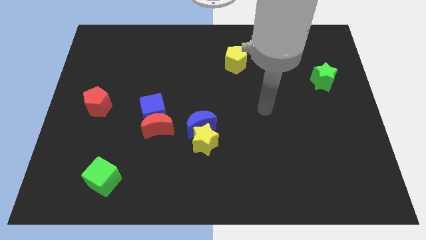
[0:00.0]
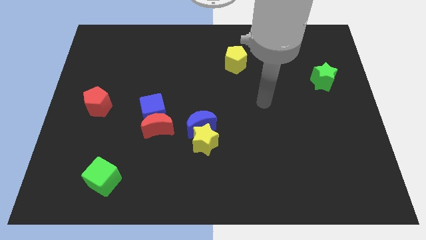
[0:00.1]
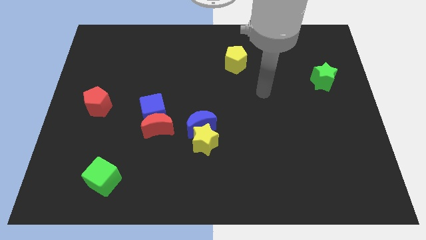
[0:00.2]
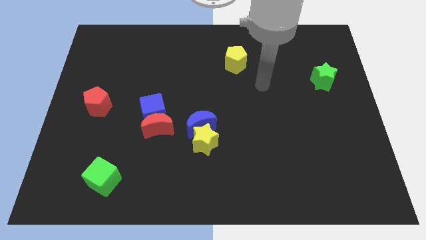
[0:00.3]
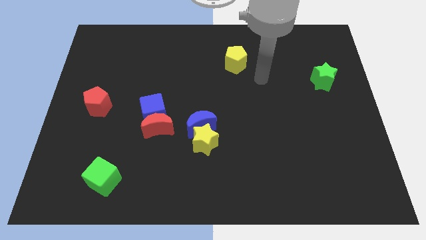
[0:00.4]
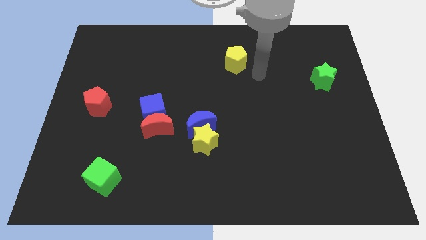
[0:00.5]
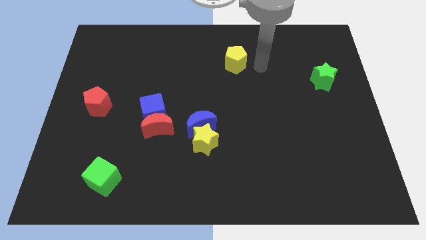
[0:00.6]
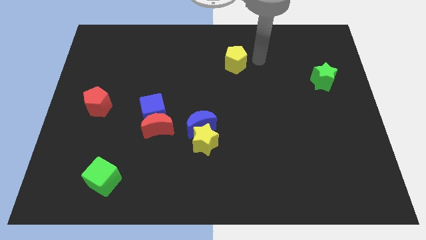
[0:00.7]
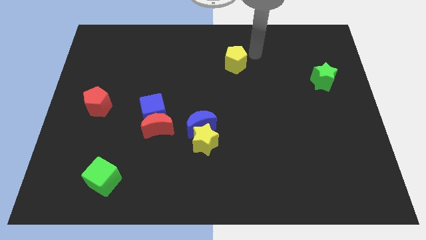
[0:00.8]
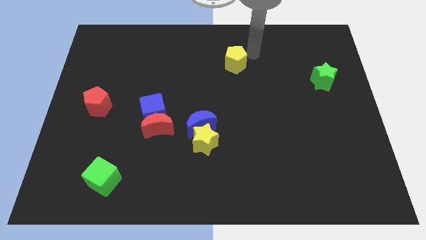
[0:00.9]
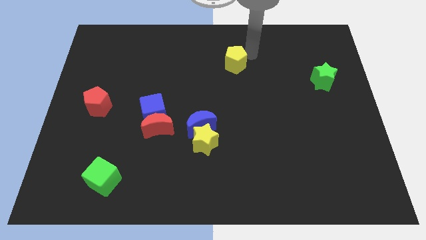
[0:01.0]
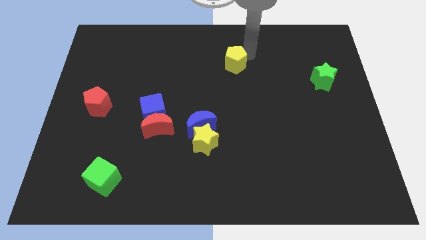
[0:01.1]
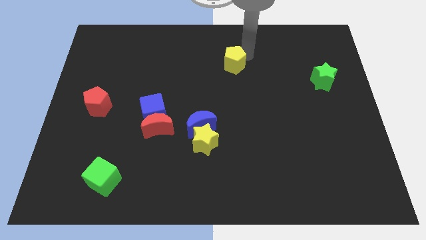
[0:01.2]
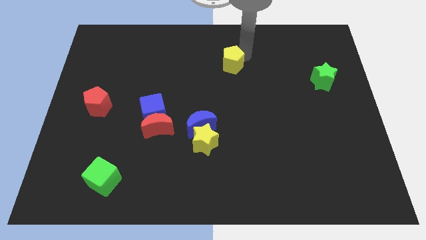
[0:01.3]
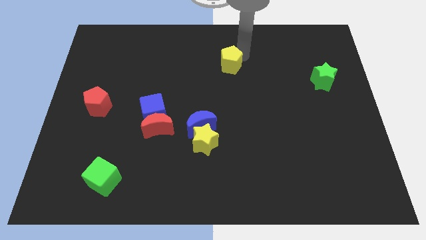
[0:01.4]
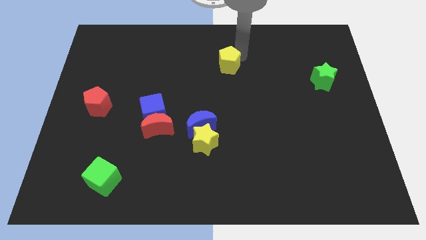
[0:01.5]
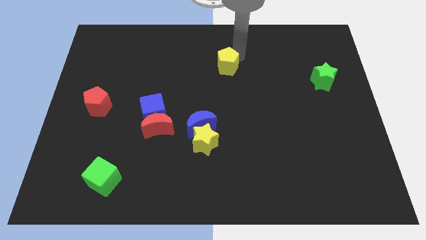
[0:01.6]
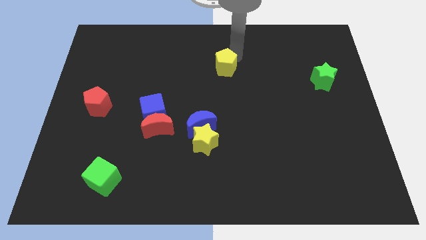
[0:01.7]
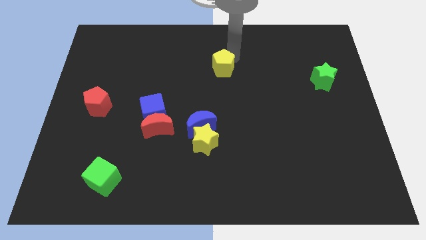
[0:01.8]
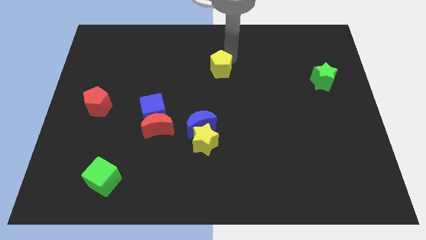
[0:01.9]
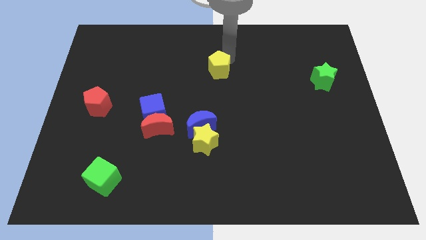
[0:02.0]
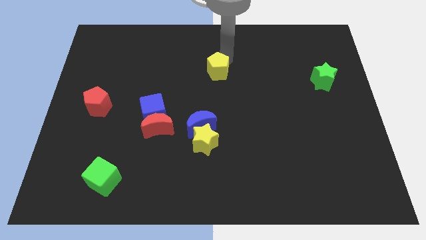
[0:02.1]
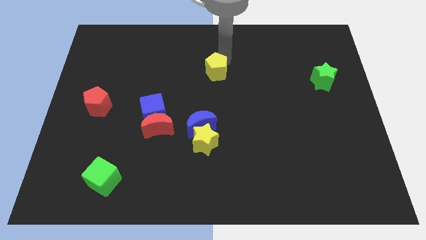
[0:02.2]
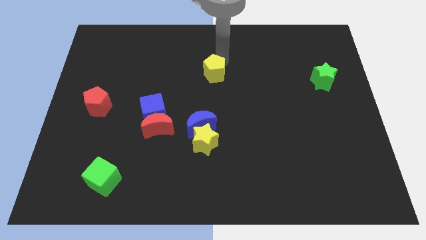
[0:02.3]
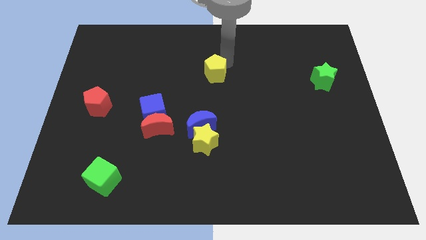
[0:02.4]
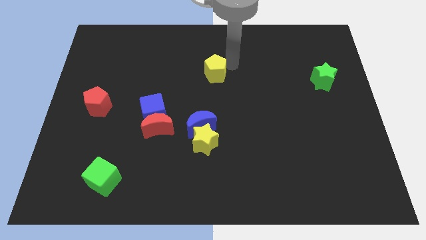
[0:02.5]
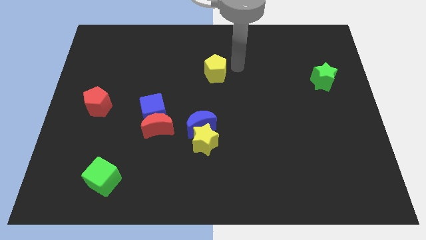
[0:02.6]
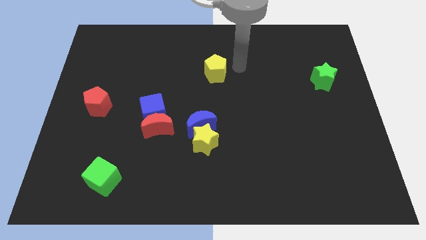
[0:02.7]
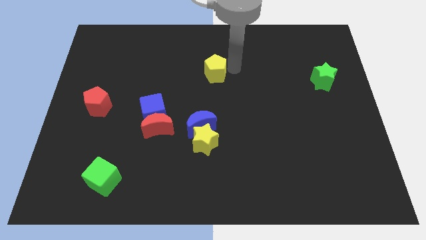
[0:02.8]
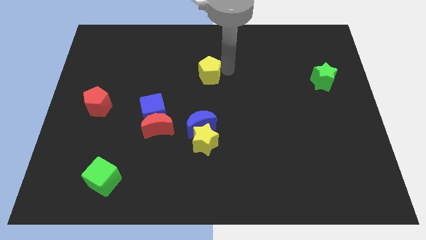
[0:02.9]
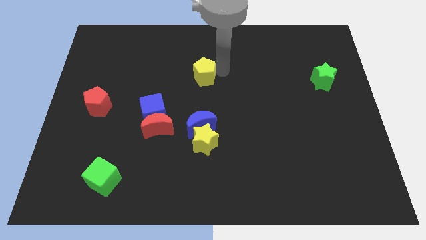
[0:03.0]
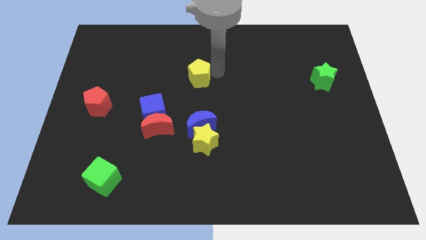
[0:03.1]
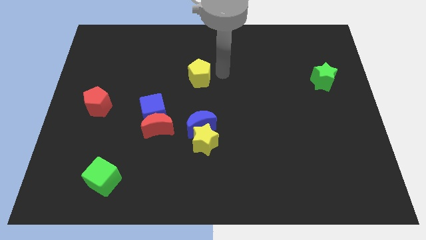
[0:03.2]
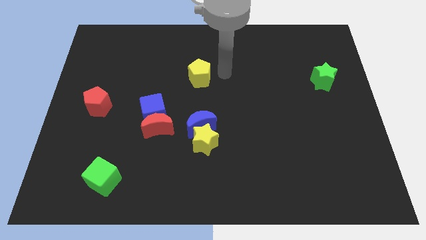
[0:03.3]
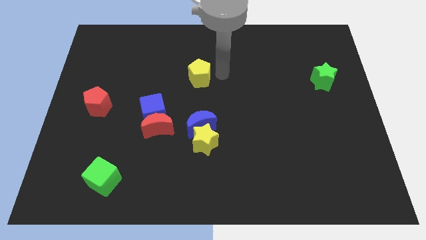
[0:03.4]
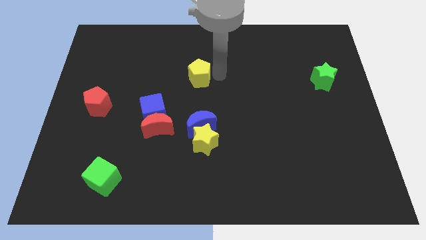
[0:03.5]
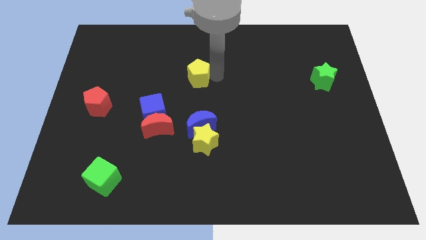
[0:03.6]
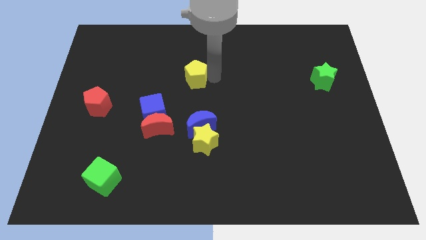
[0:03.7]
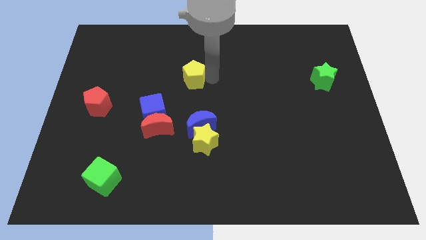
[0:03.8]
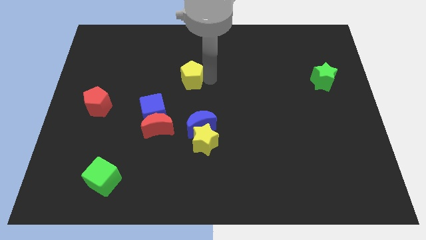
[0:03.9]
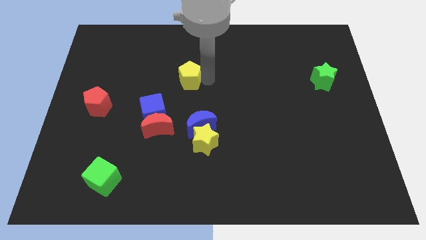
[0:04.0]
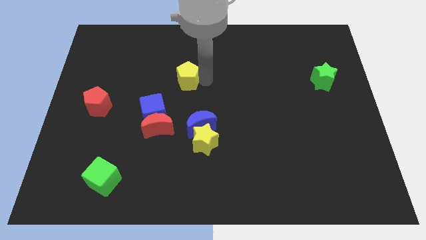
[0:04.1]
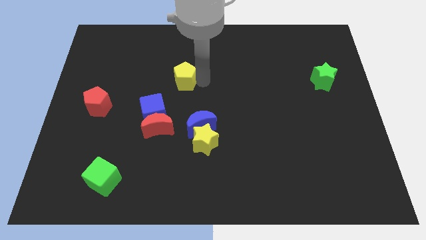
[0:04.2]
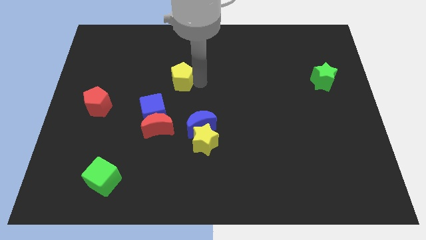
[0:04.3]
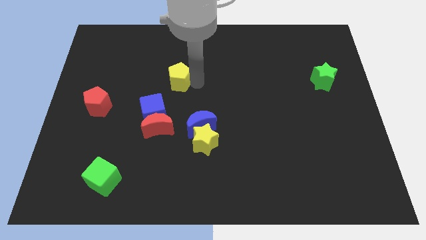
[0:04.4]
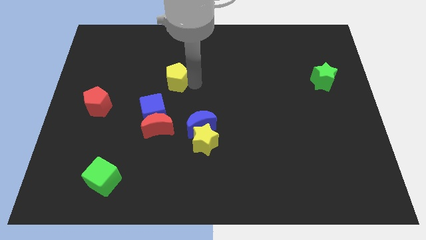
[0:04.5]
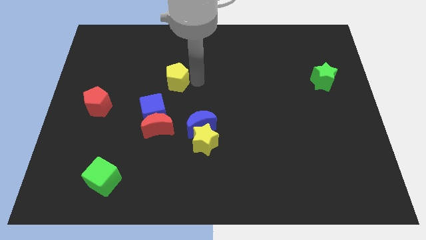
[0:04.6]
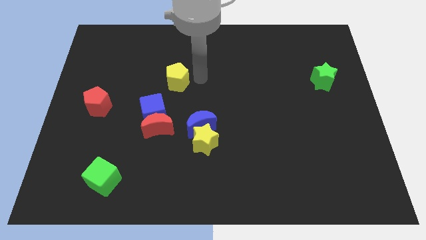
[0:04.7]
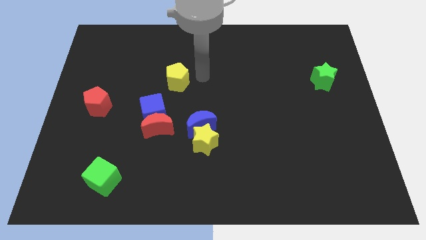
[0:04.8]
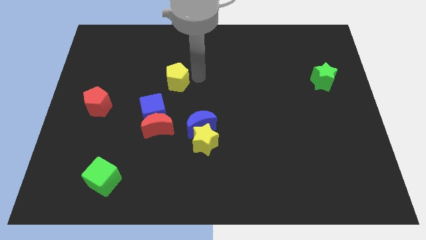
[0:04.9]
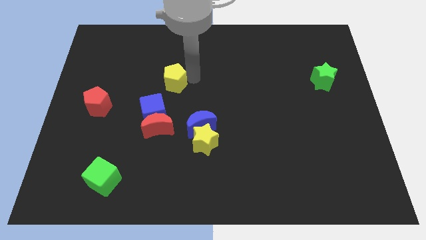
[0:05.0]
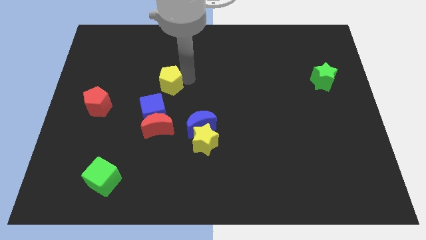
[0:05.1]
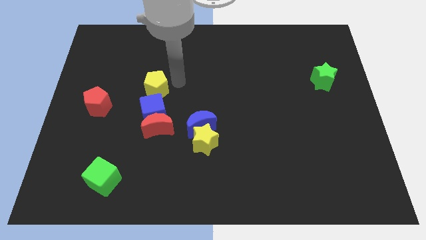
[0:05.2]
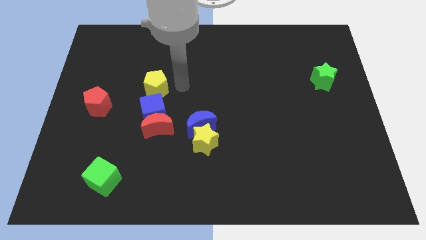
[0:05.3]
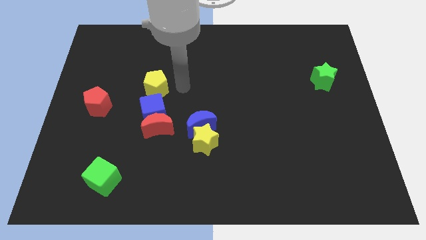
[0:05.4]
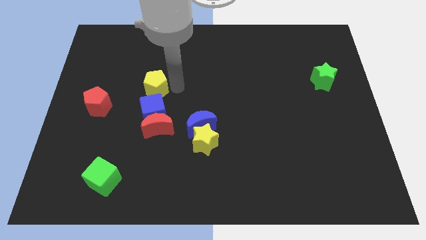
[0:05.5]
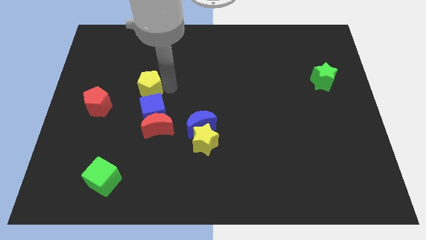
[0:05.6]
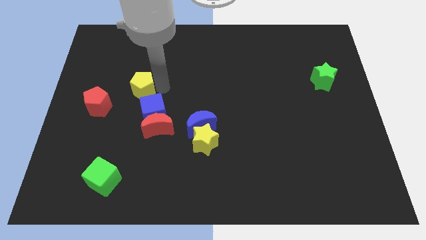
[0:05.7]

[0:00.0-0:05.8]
move the yellow pentagon to the top right of the red pentagon

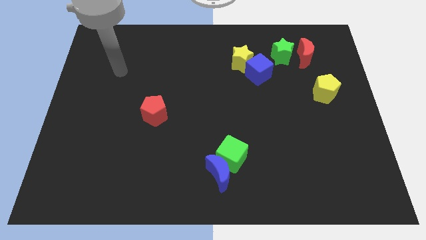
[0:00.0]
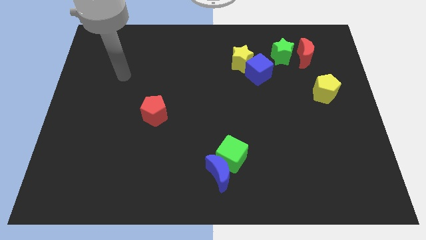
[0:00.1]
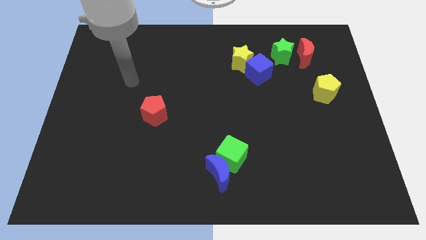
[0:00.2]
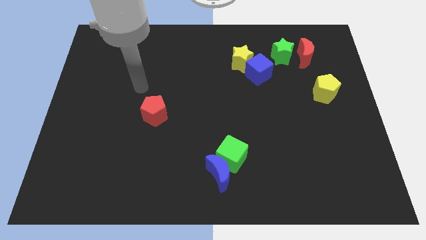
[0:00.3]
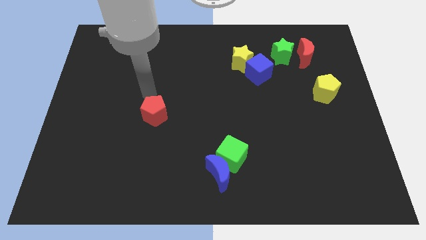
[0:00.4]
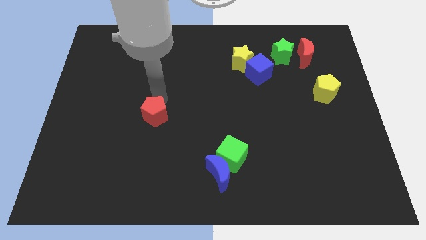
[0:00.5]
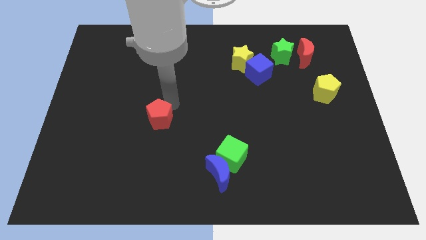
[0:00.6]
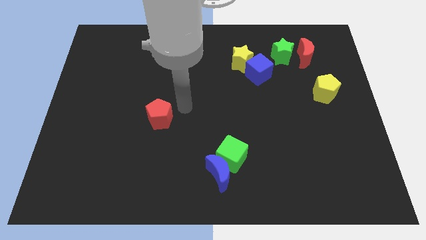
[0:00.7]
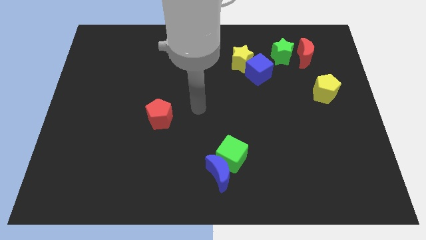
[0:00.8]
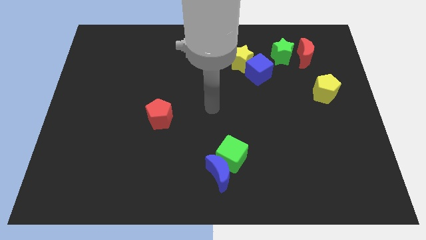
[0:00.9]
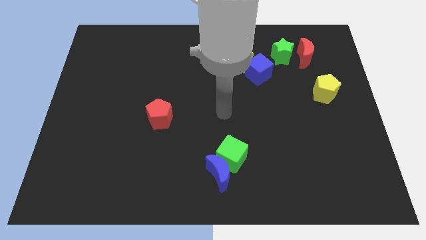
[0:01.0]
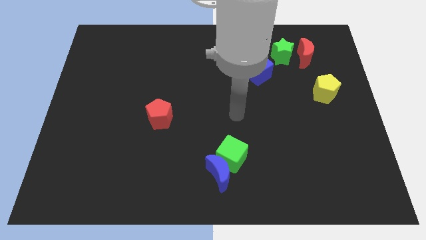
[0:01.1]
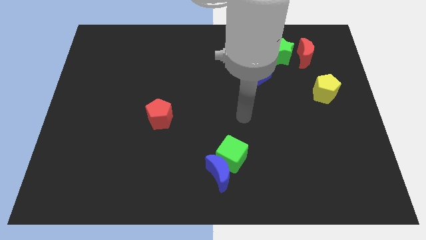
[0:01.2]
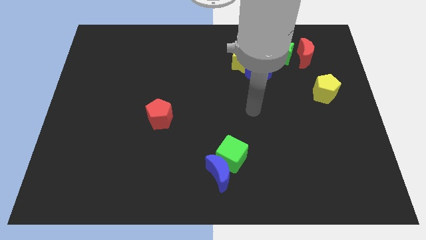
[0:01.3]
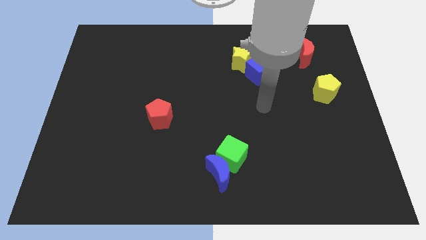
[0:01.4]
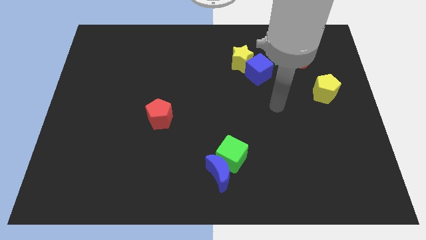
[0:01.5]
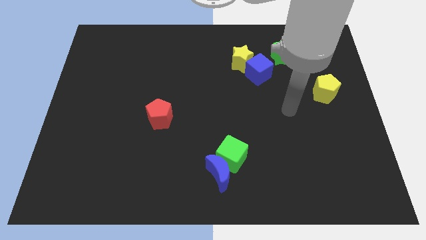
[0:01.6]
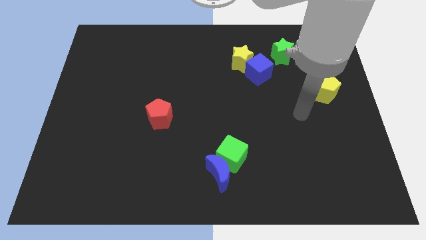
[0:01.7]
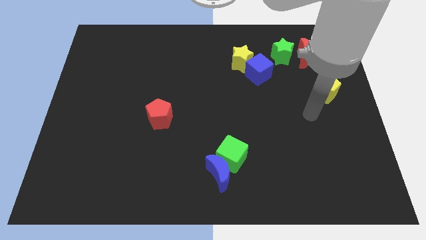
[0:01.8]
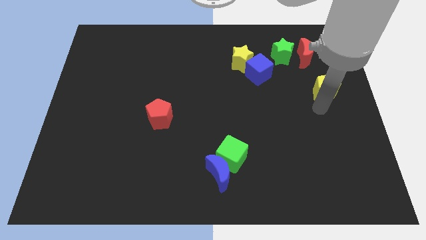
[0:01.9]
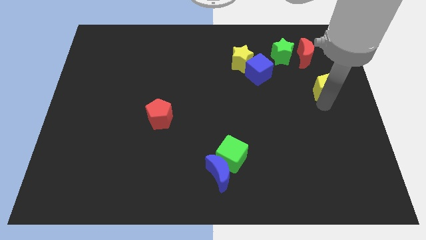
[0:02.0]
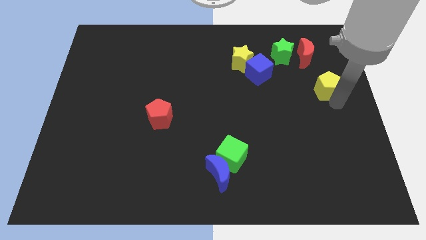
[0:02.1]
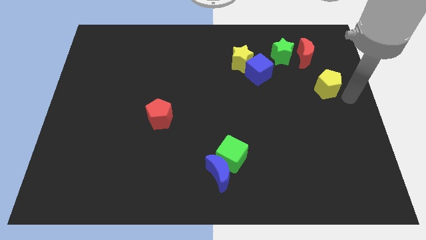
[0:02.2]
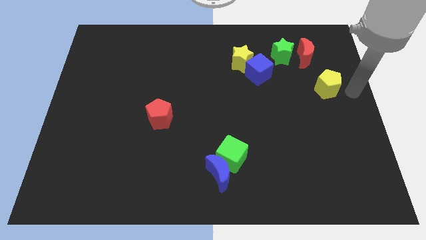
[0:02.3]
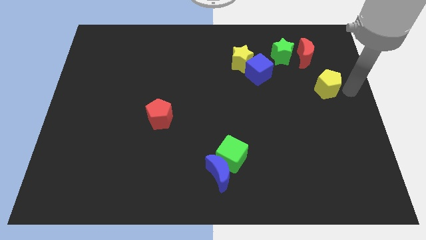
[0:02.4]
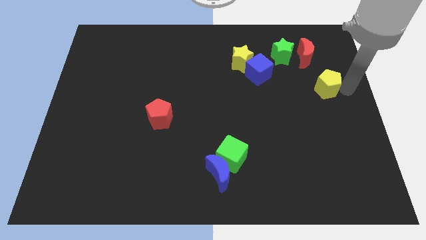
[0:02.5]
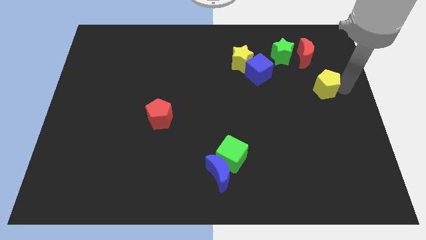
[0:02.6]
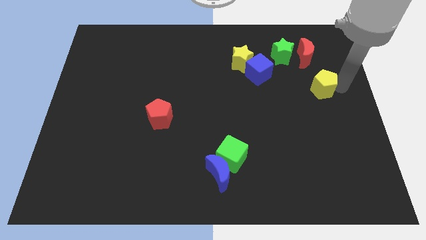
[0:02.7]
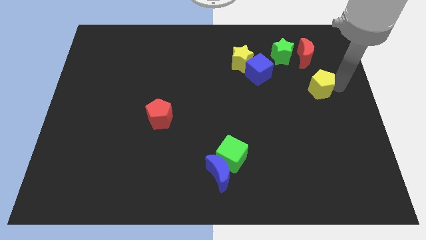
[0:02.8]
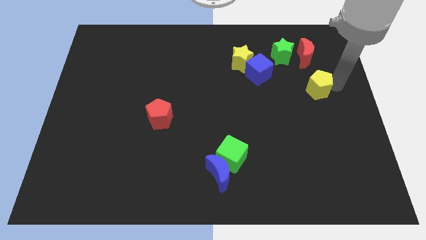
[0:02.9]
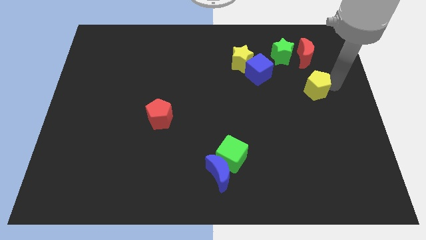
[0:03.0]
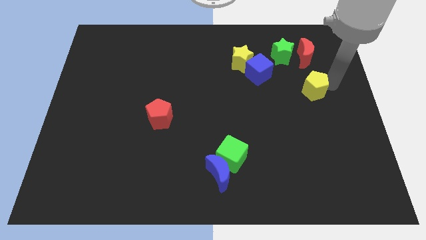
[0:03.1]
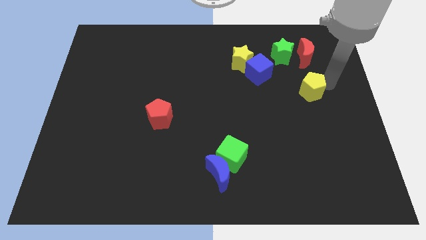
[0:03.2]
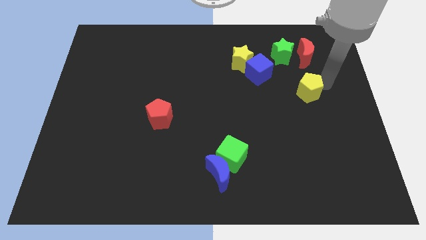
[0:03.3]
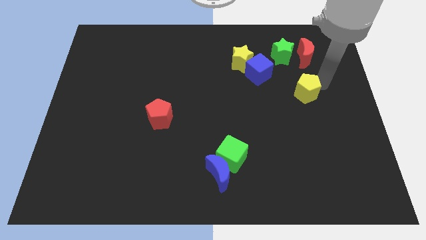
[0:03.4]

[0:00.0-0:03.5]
slide the yellow pentagon below the green star
